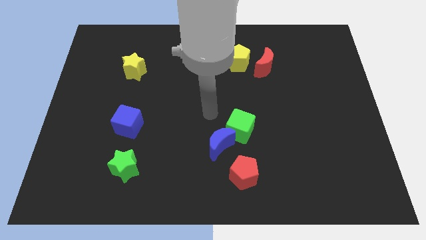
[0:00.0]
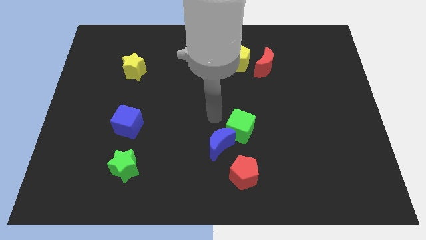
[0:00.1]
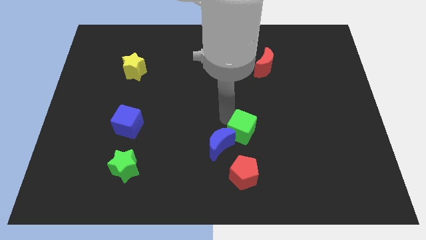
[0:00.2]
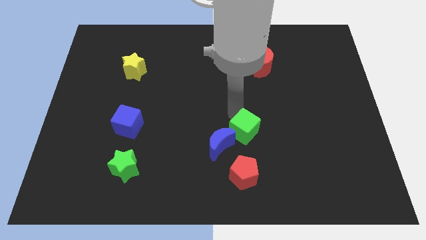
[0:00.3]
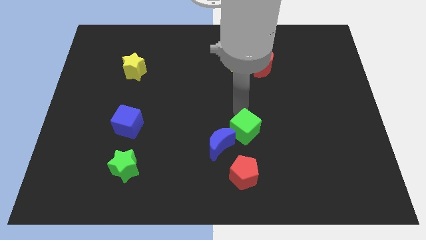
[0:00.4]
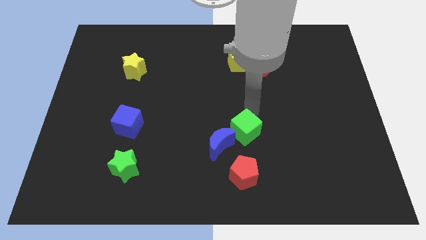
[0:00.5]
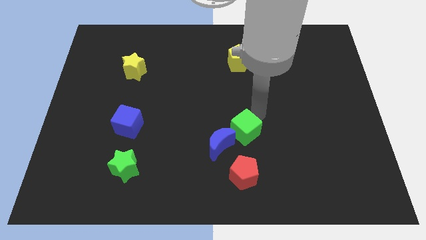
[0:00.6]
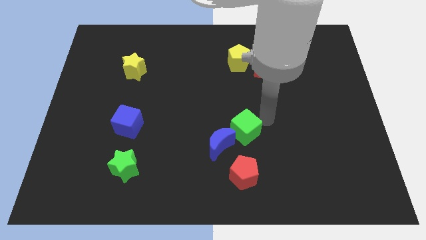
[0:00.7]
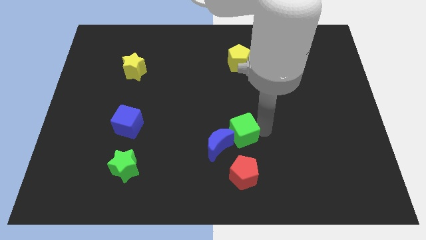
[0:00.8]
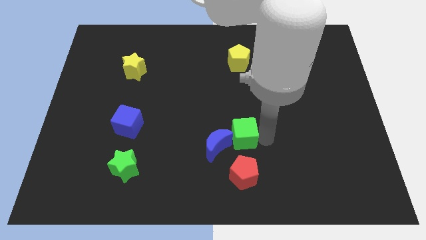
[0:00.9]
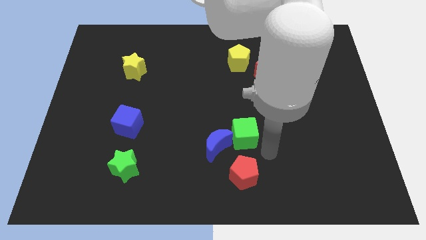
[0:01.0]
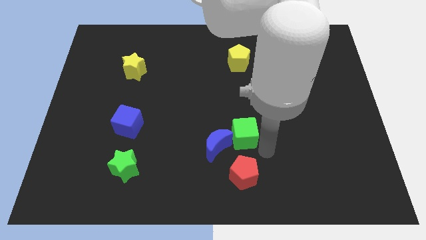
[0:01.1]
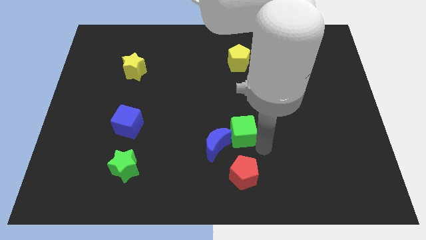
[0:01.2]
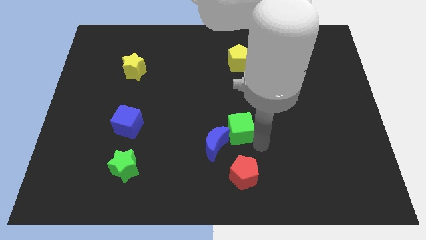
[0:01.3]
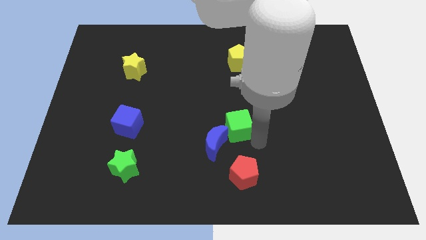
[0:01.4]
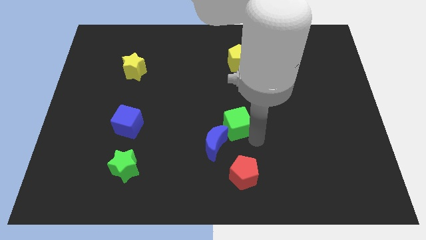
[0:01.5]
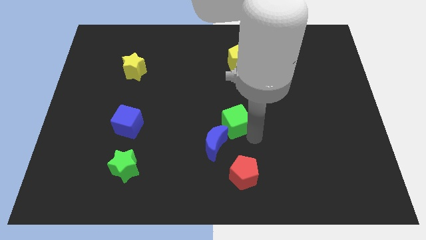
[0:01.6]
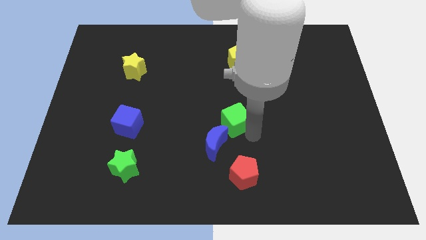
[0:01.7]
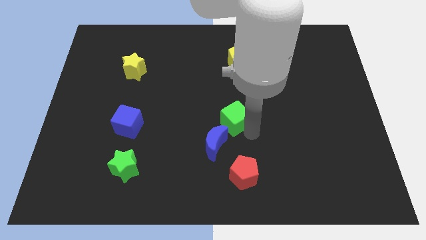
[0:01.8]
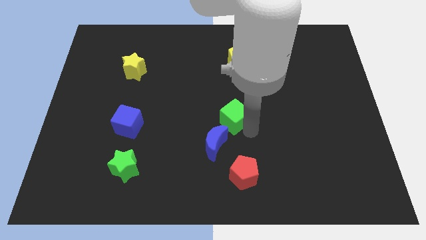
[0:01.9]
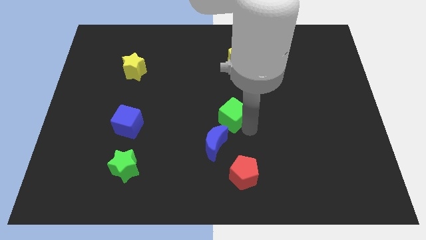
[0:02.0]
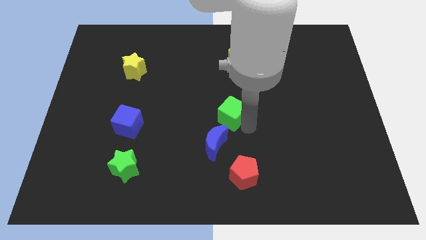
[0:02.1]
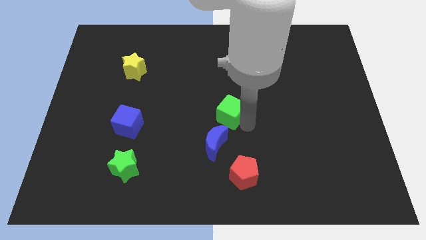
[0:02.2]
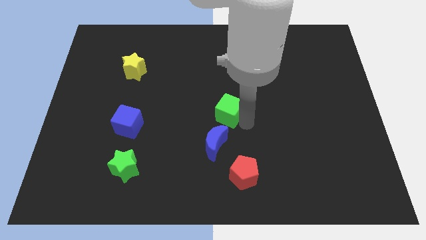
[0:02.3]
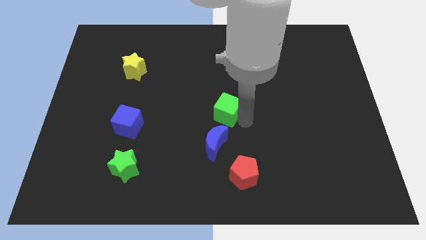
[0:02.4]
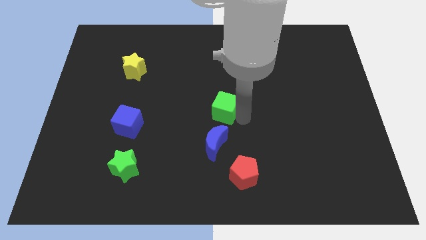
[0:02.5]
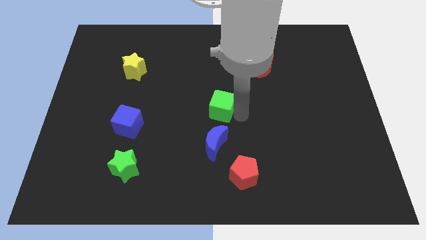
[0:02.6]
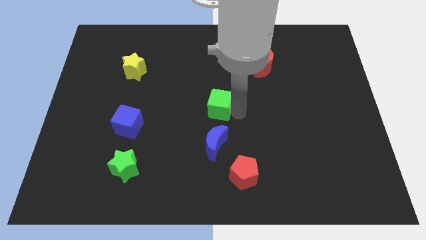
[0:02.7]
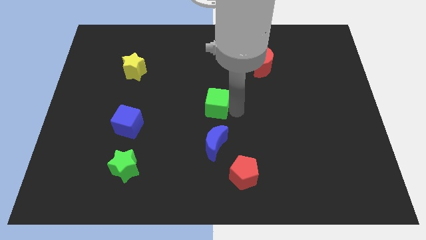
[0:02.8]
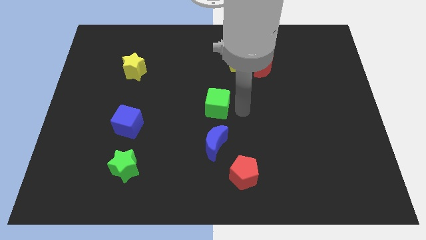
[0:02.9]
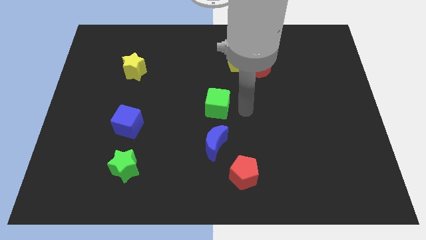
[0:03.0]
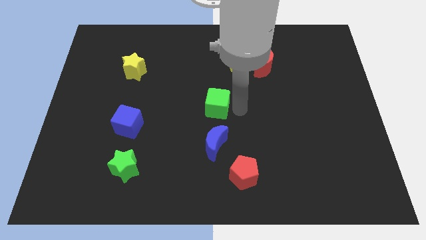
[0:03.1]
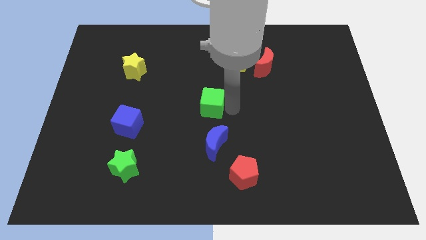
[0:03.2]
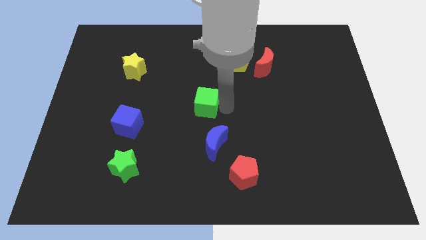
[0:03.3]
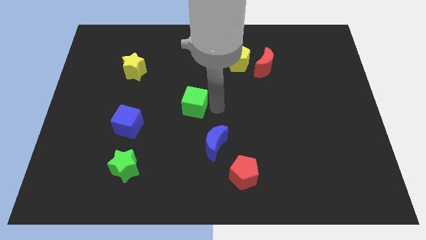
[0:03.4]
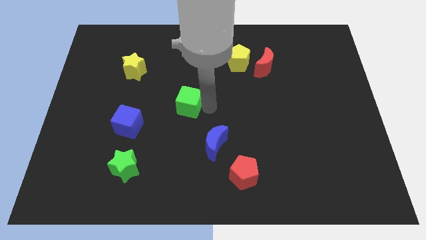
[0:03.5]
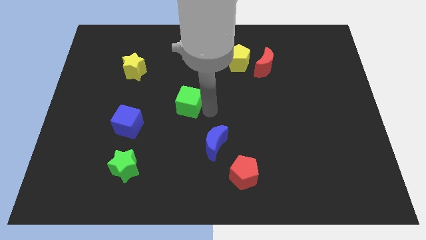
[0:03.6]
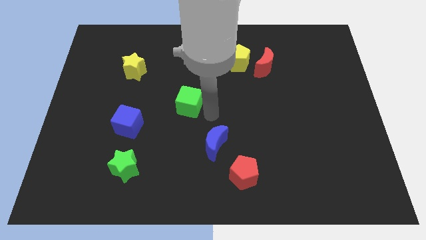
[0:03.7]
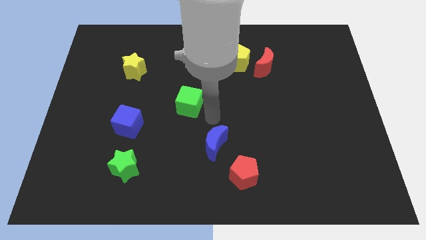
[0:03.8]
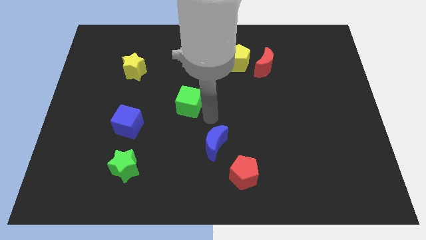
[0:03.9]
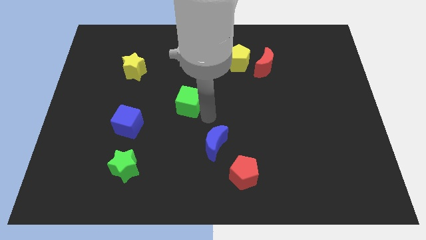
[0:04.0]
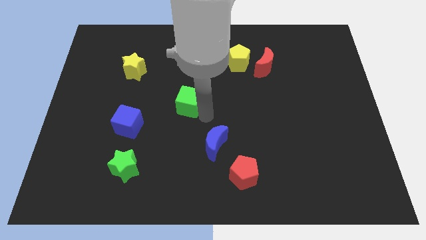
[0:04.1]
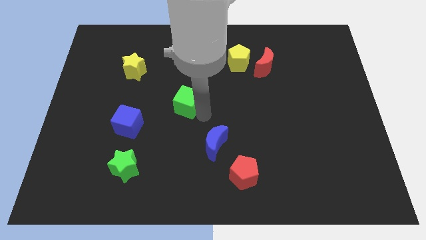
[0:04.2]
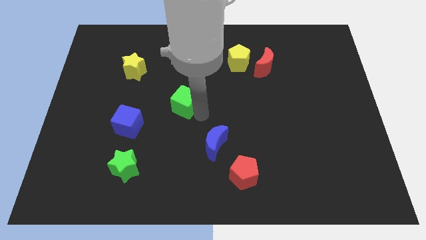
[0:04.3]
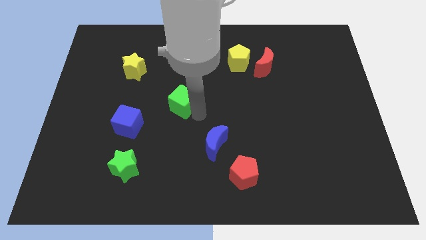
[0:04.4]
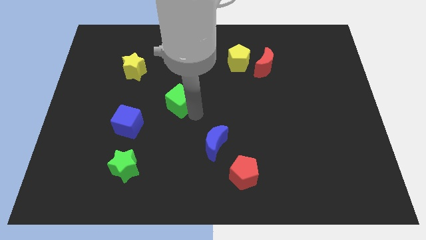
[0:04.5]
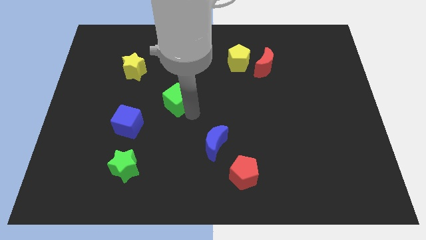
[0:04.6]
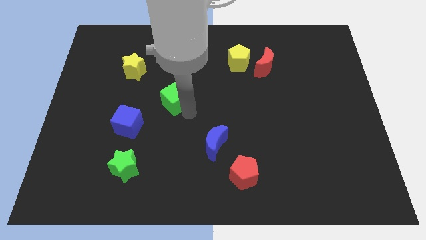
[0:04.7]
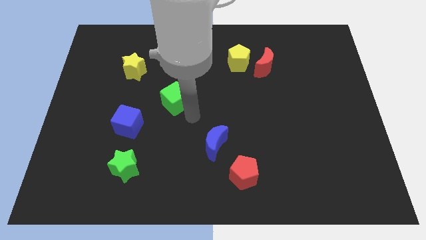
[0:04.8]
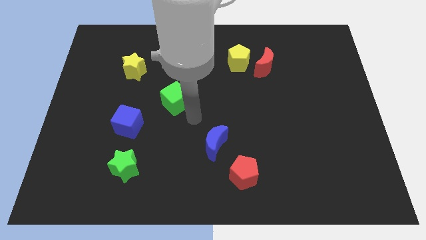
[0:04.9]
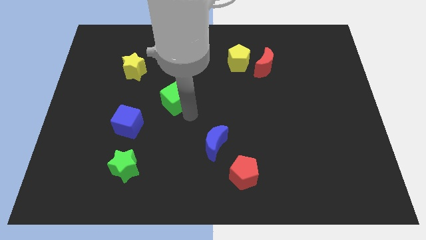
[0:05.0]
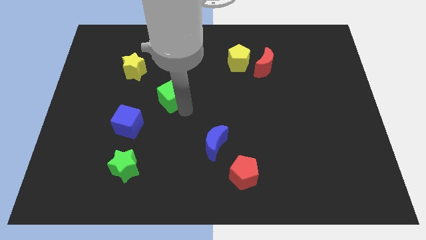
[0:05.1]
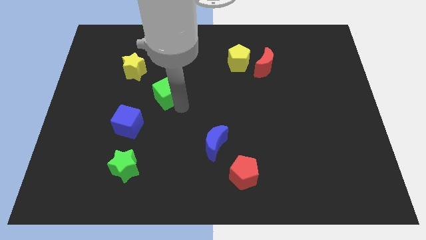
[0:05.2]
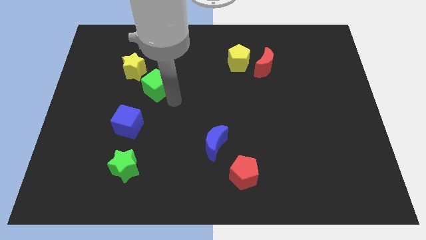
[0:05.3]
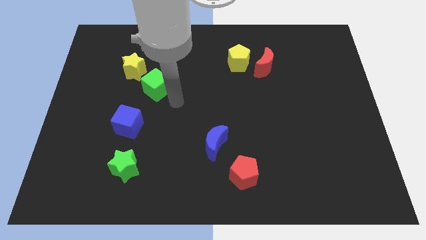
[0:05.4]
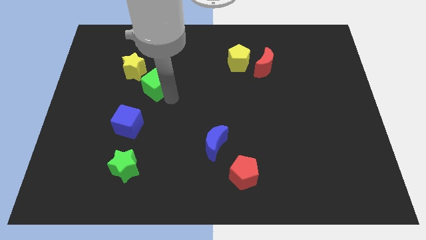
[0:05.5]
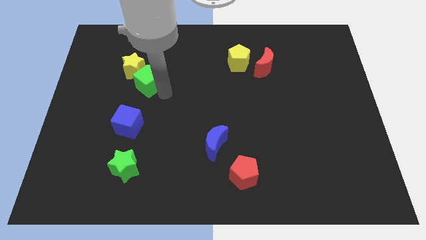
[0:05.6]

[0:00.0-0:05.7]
put the green cube to the yellow star

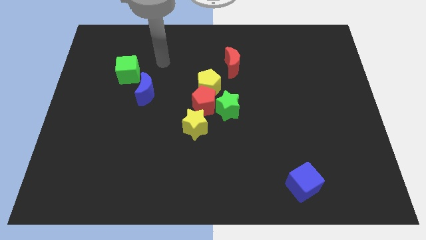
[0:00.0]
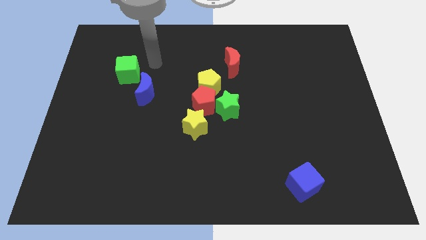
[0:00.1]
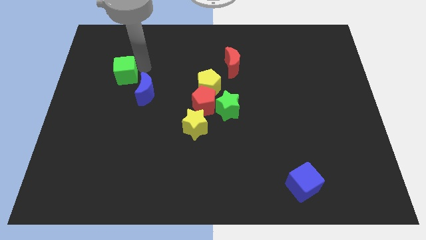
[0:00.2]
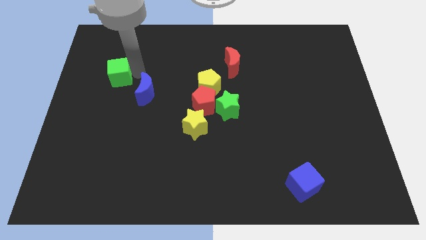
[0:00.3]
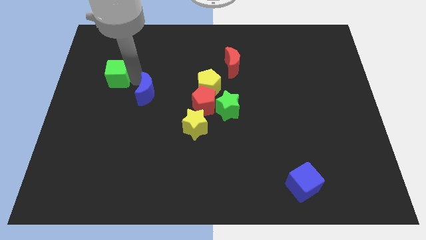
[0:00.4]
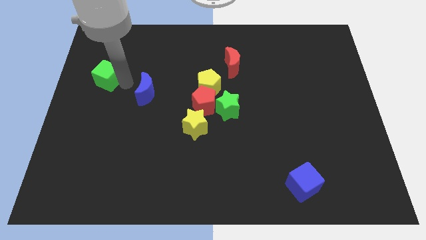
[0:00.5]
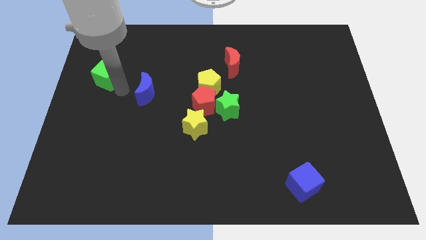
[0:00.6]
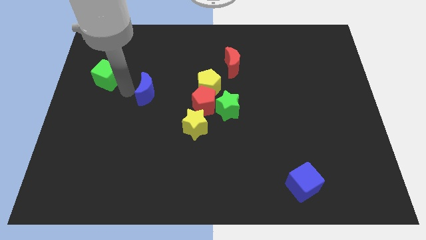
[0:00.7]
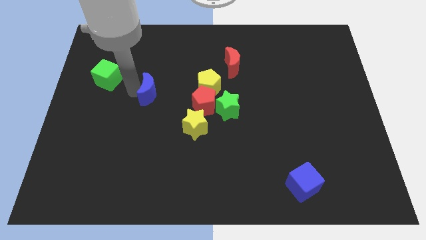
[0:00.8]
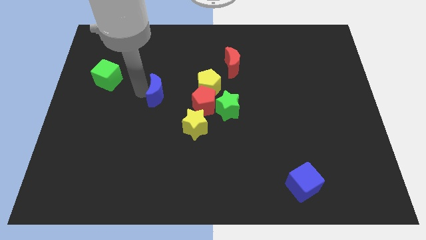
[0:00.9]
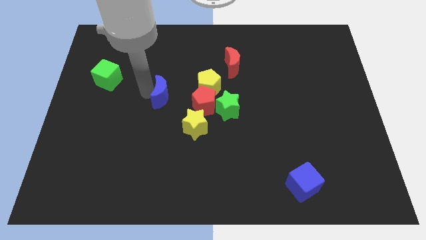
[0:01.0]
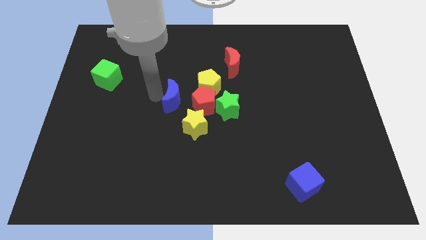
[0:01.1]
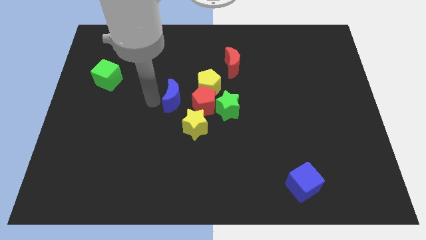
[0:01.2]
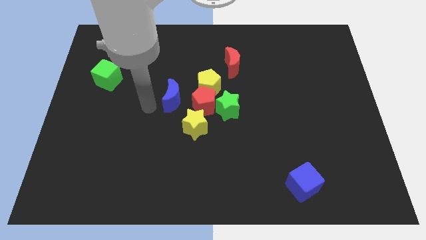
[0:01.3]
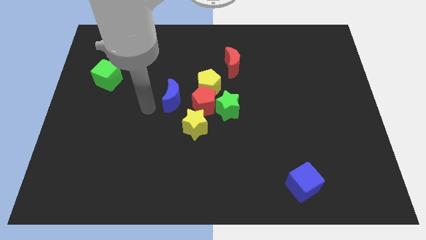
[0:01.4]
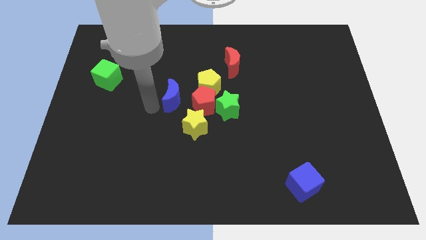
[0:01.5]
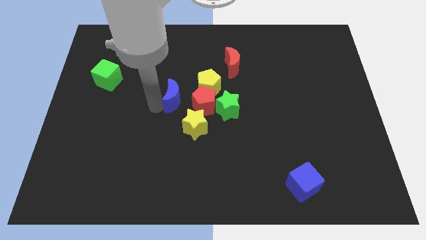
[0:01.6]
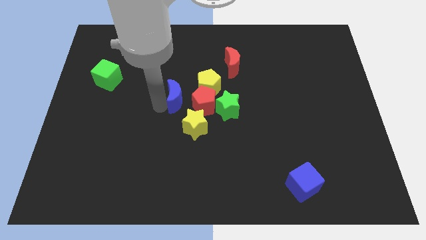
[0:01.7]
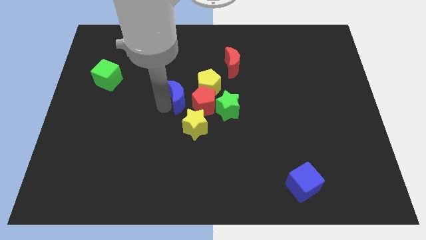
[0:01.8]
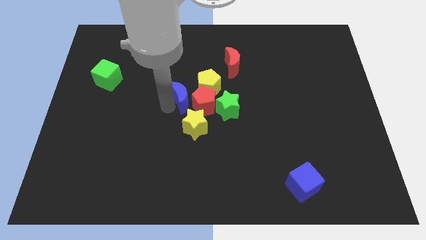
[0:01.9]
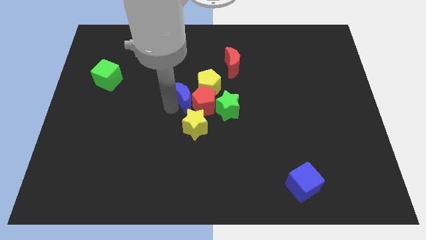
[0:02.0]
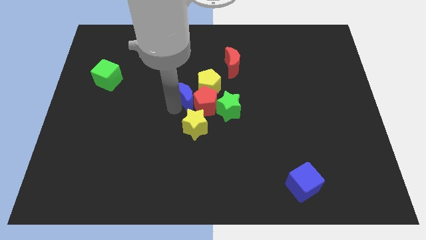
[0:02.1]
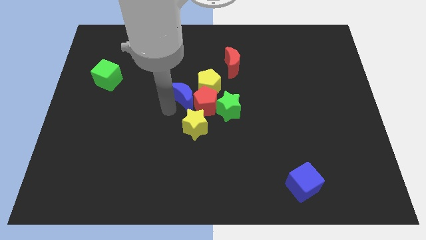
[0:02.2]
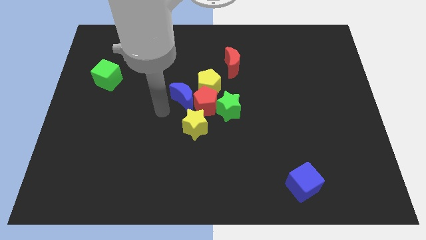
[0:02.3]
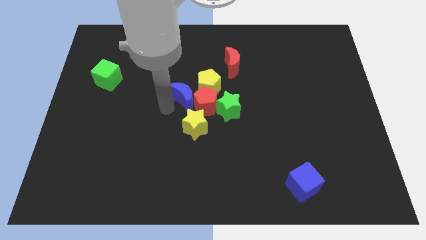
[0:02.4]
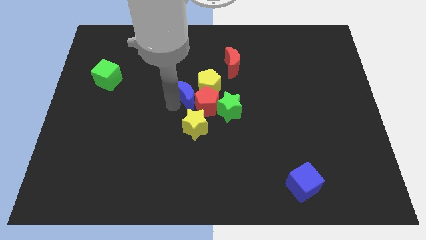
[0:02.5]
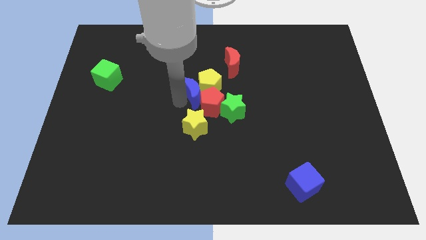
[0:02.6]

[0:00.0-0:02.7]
put the blue moon close to the yellow pentagon
